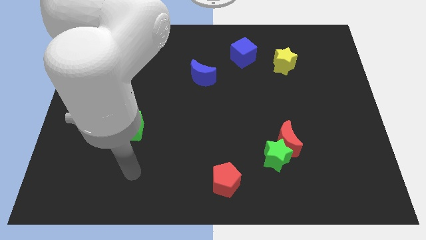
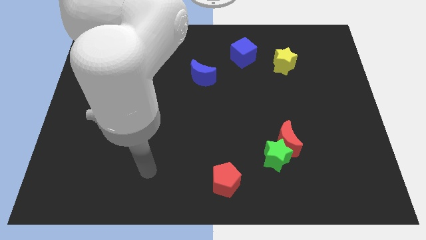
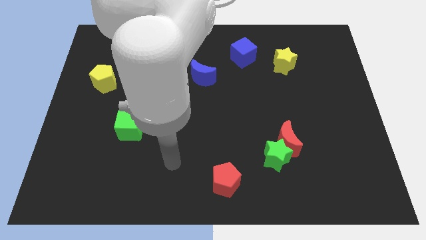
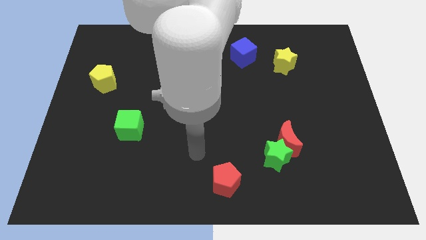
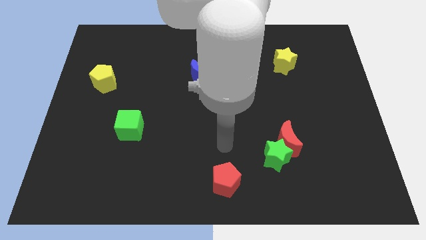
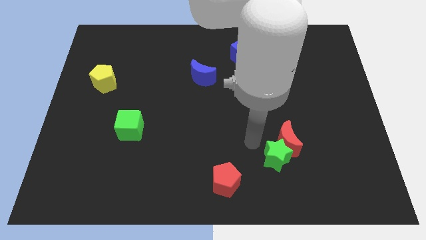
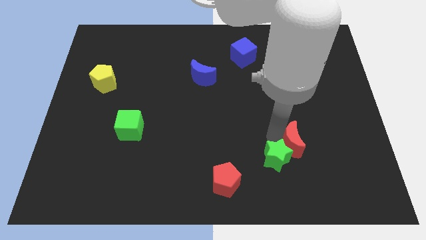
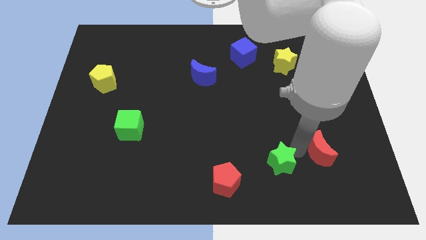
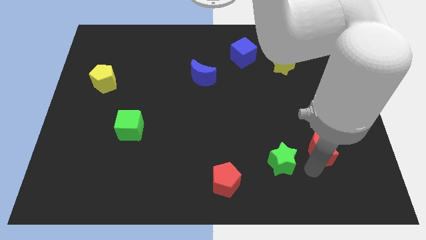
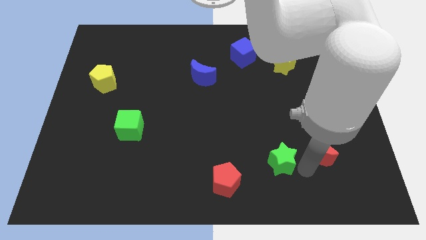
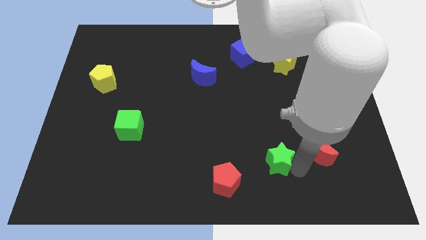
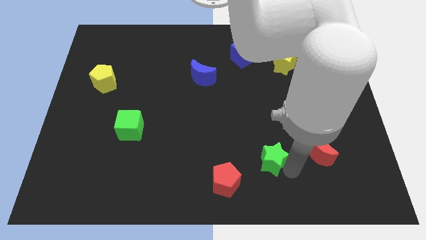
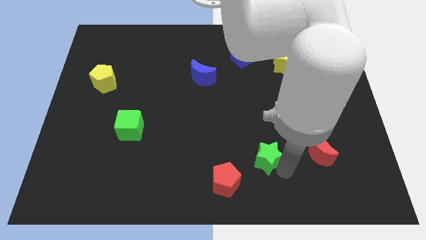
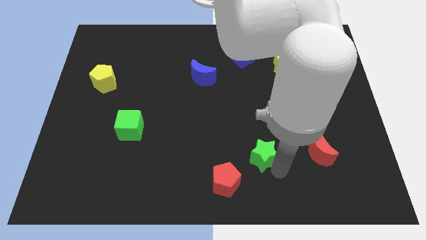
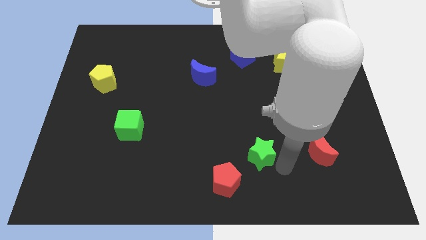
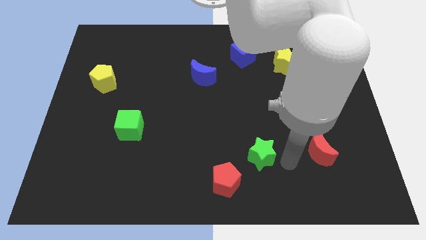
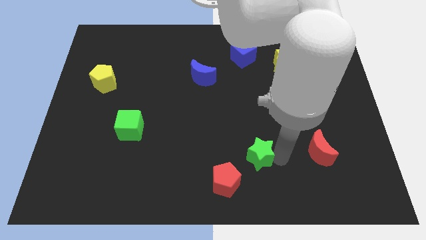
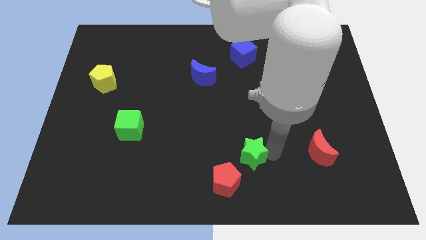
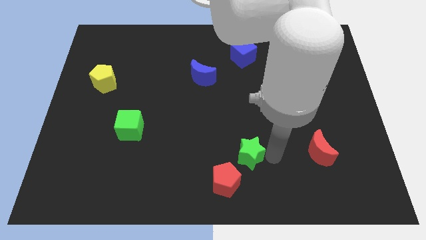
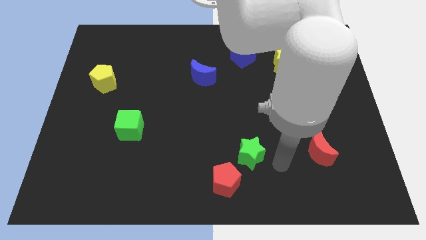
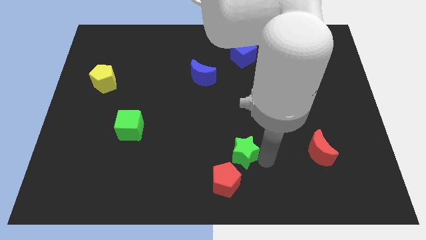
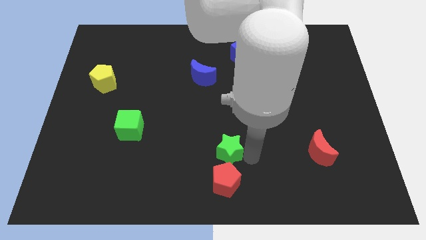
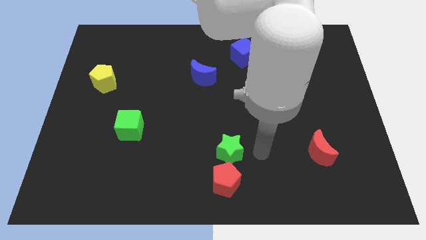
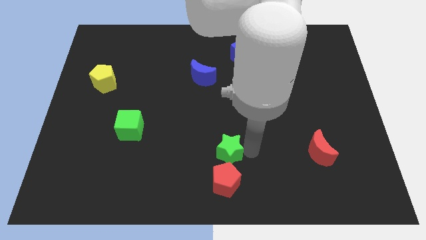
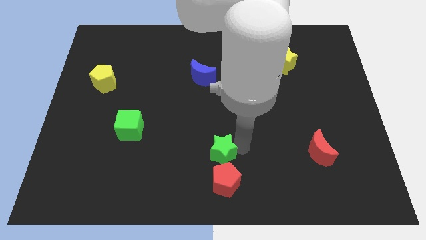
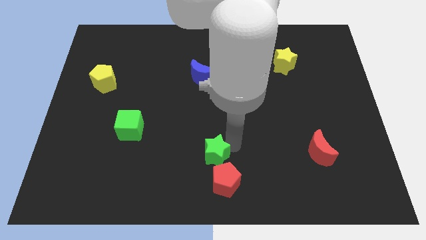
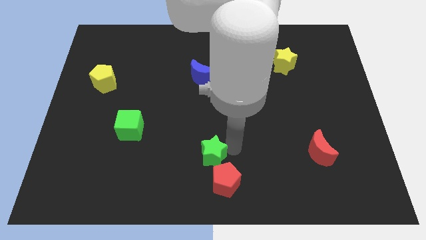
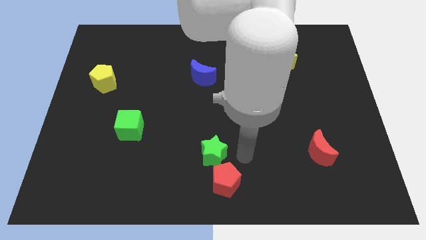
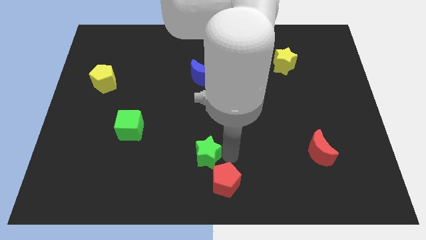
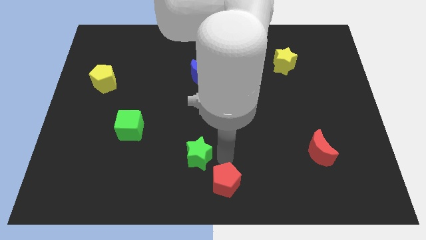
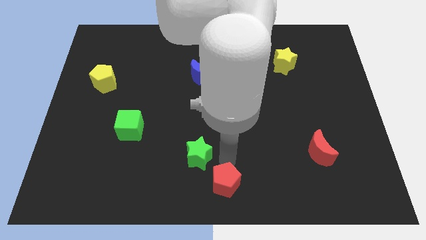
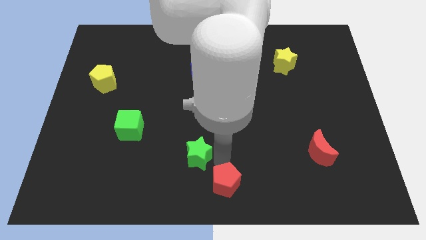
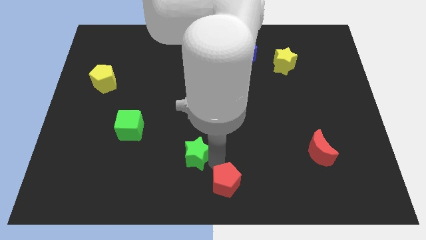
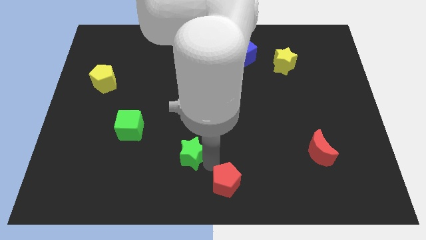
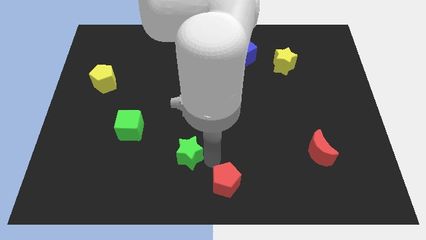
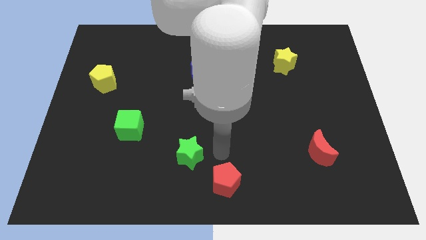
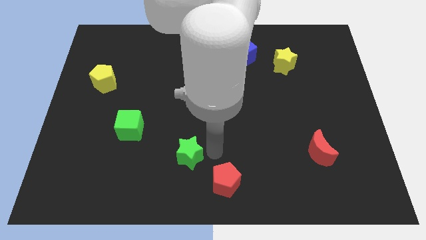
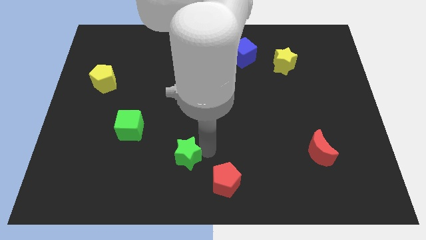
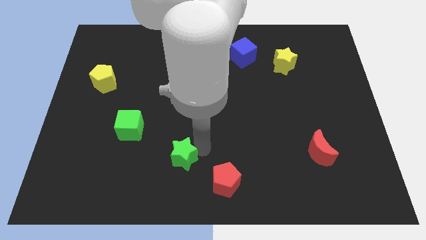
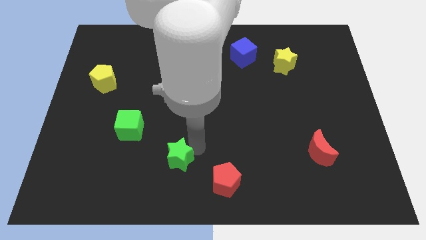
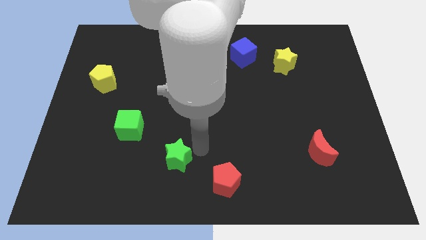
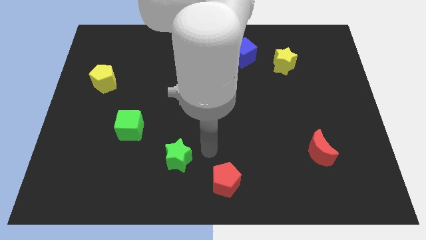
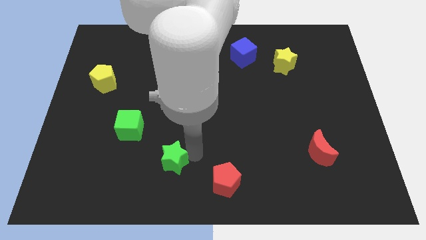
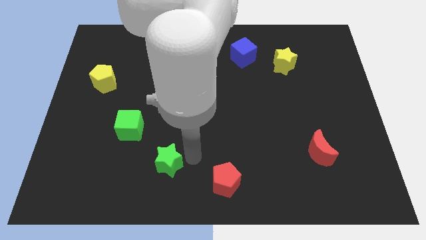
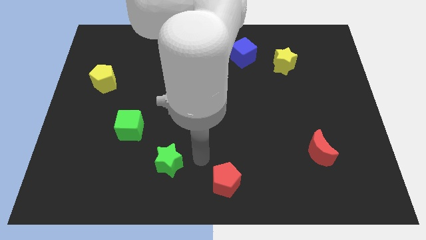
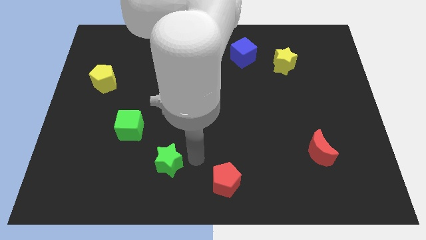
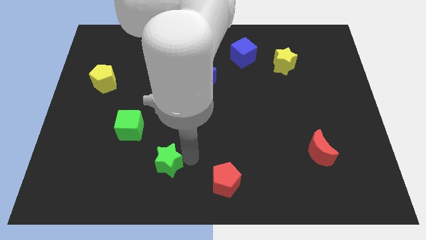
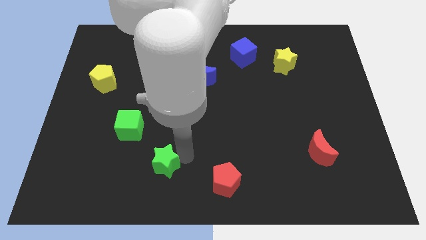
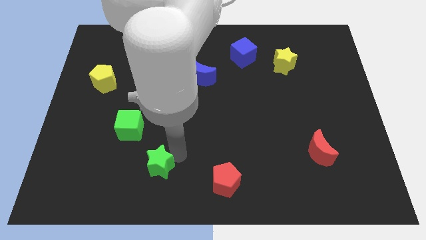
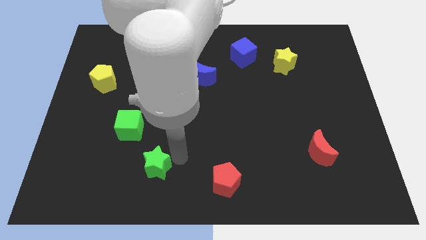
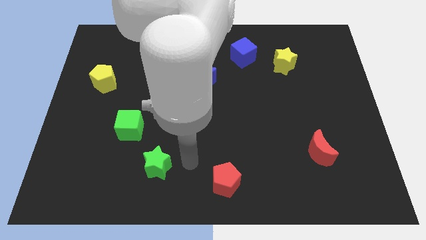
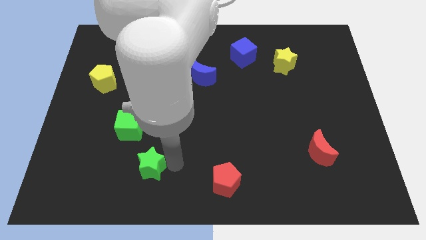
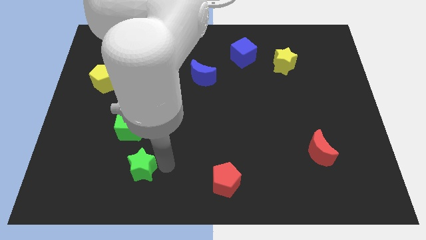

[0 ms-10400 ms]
put the green star to the bottom of the green cube

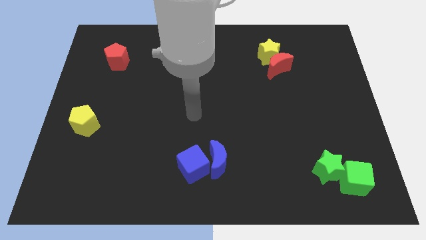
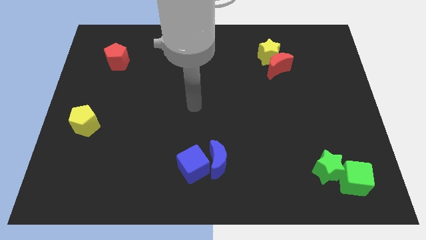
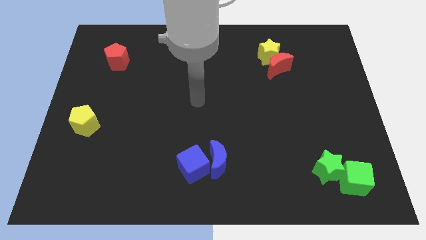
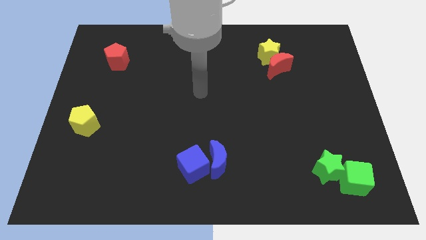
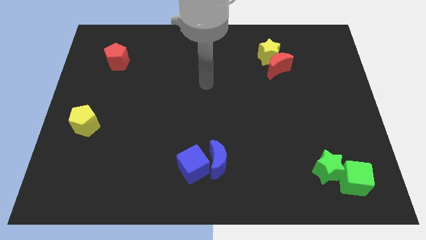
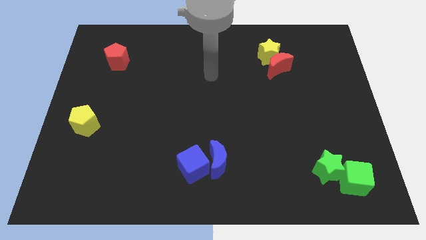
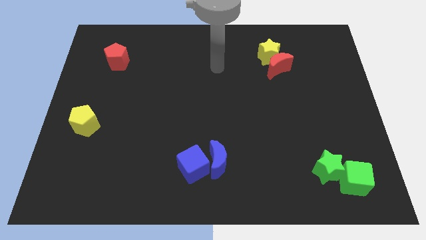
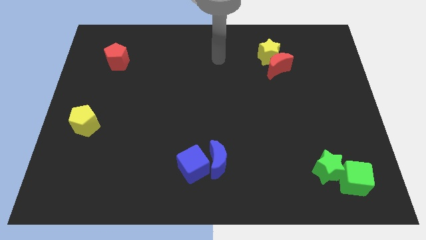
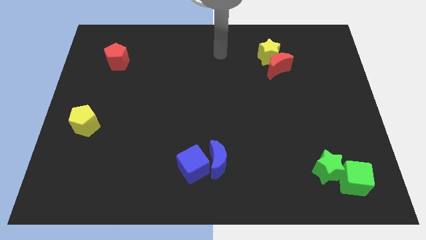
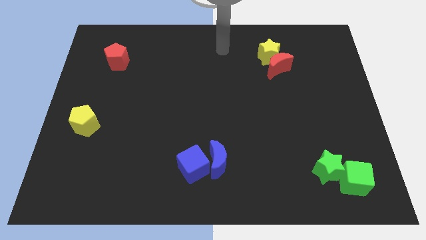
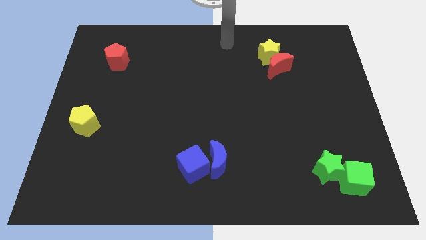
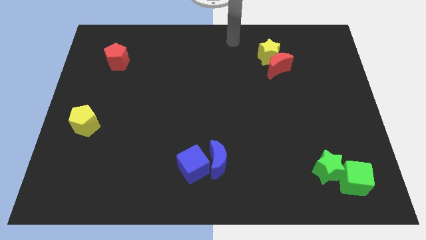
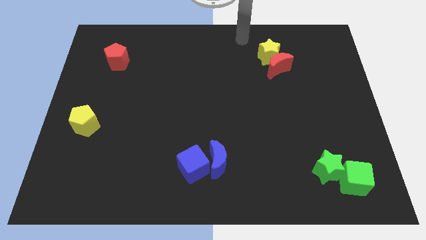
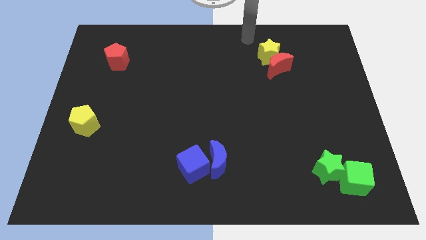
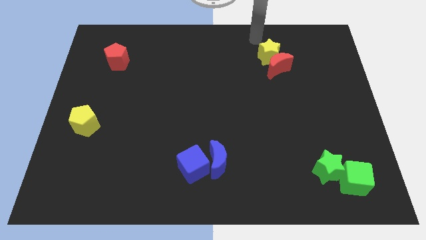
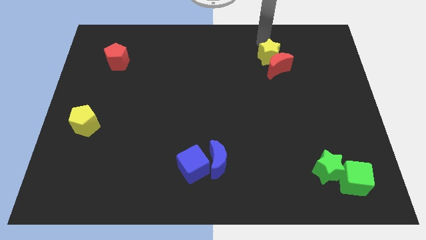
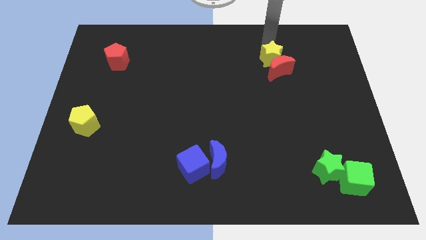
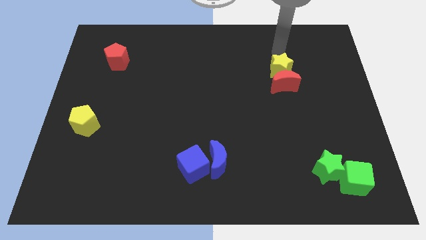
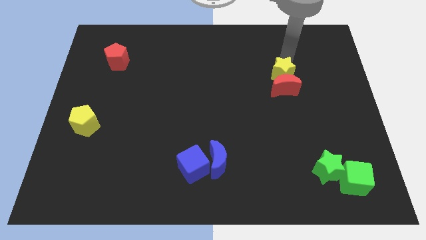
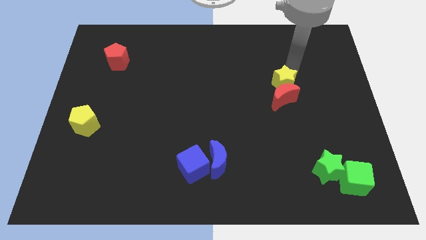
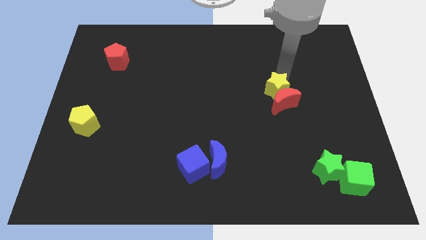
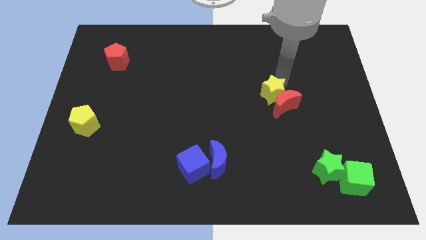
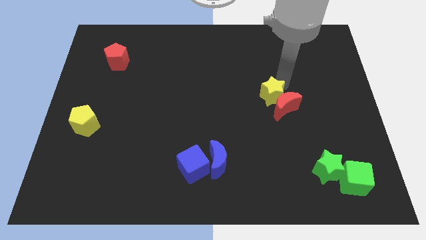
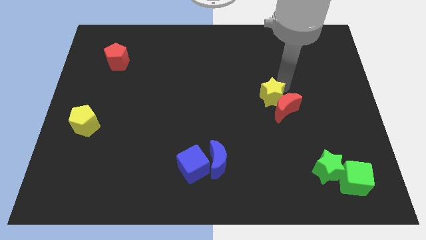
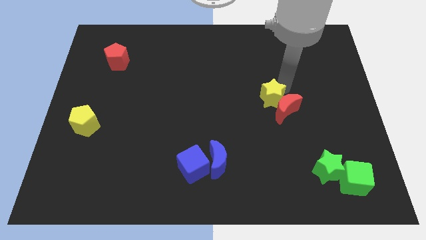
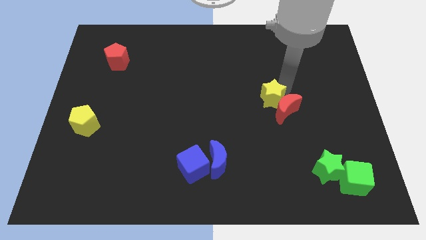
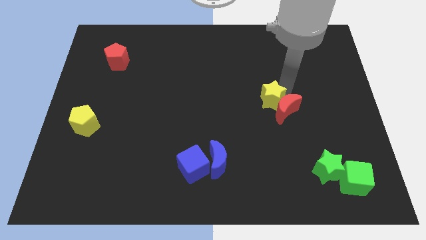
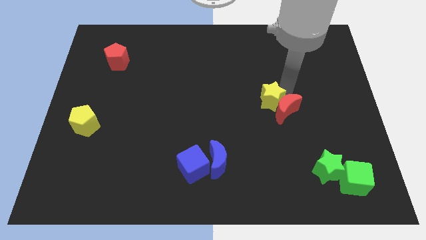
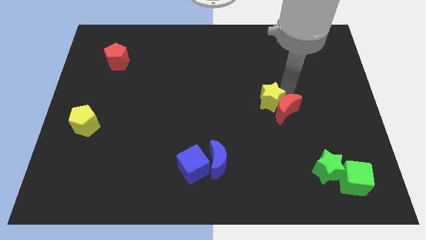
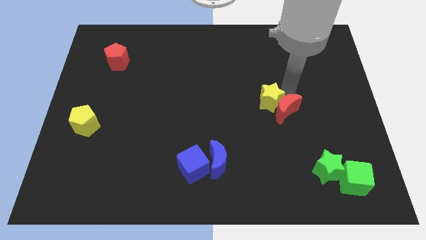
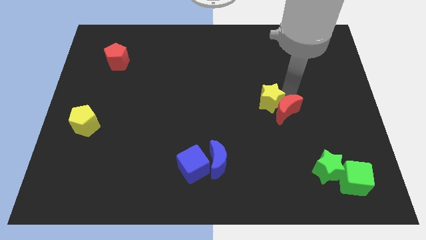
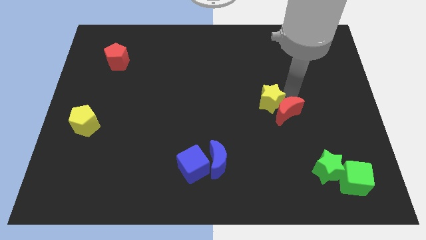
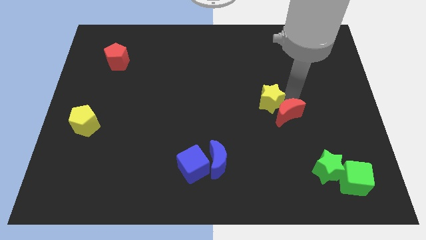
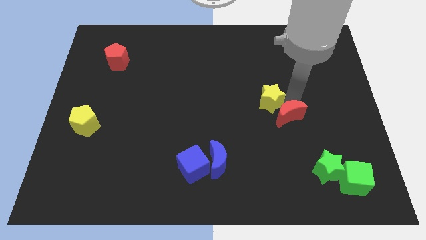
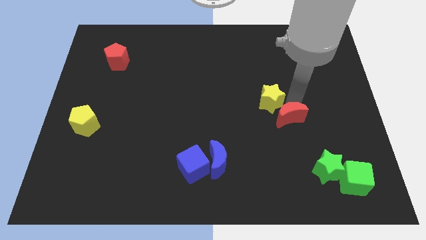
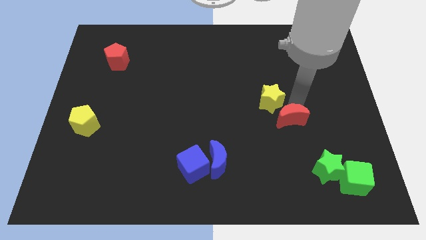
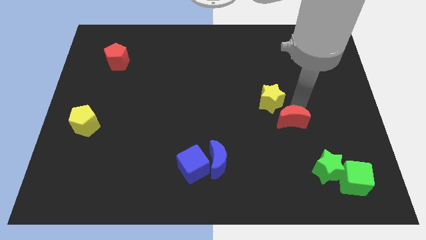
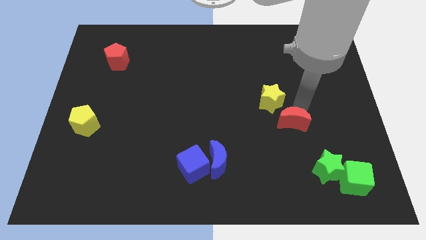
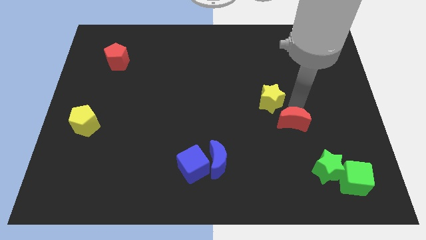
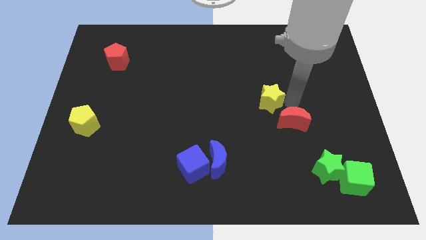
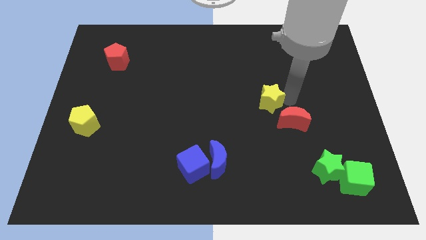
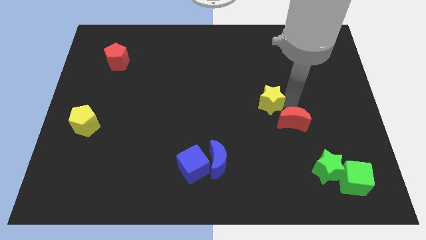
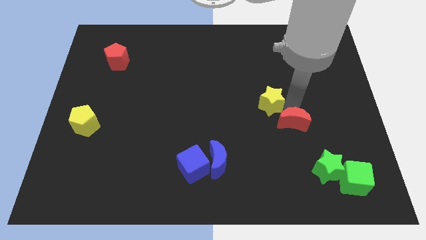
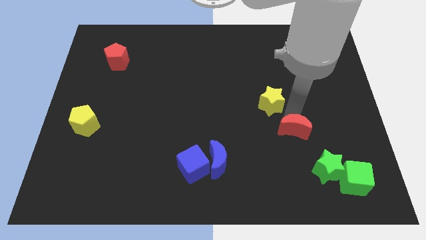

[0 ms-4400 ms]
put the red moon diagonally up and to the left of the green star
